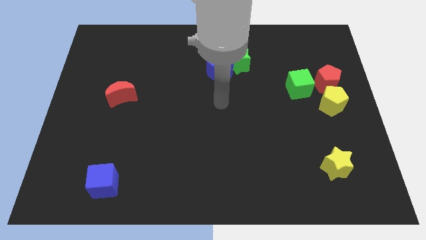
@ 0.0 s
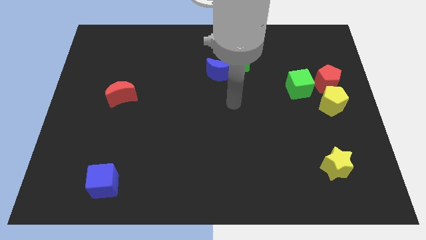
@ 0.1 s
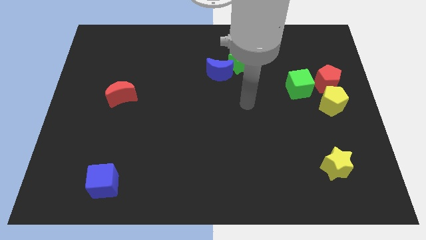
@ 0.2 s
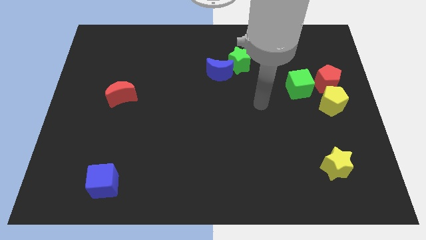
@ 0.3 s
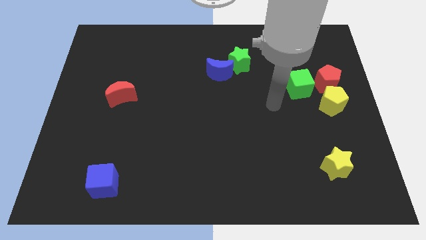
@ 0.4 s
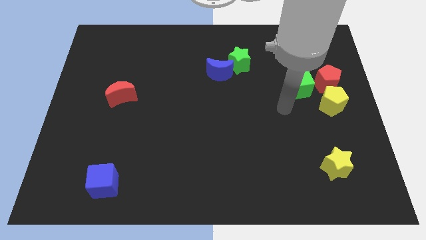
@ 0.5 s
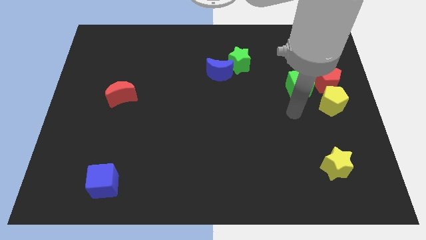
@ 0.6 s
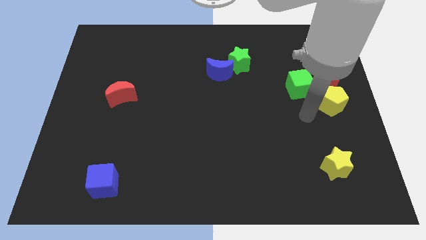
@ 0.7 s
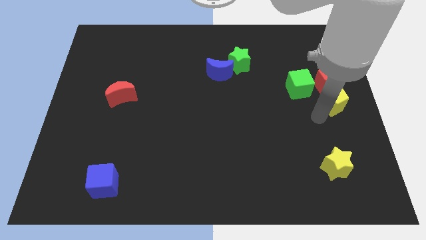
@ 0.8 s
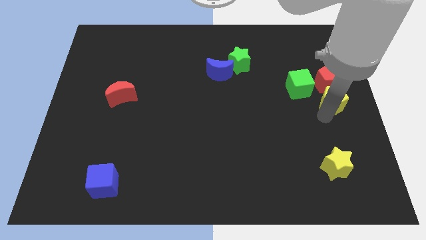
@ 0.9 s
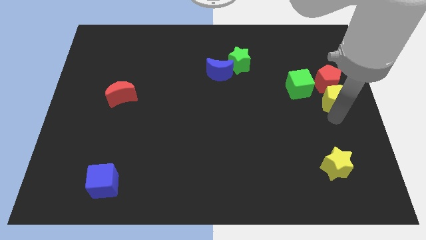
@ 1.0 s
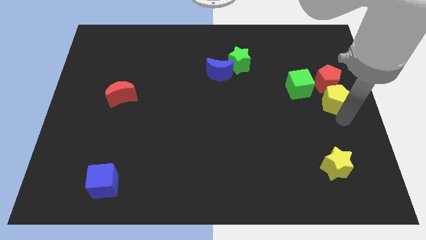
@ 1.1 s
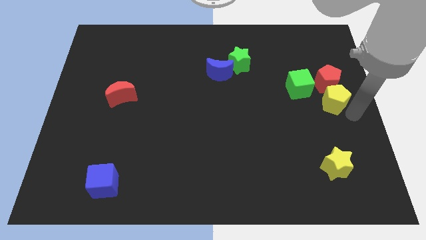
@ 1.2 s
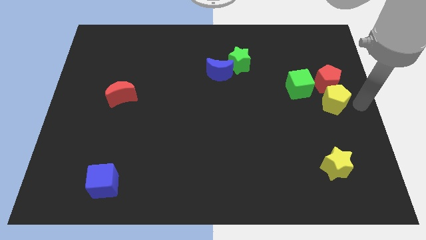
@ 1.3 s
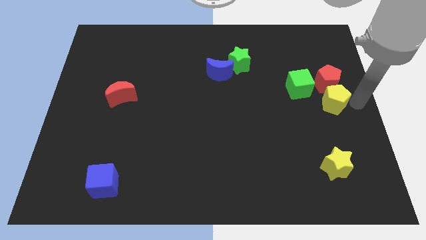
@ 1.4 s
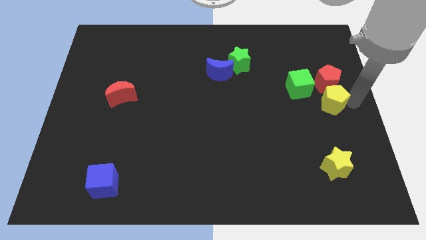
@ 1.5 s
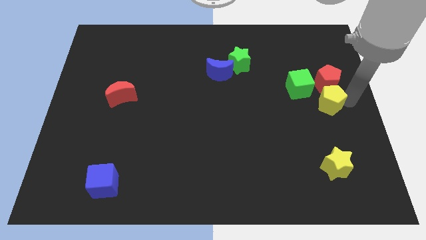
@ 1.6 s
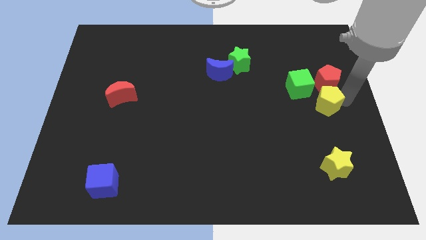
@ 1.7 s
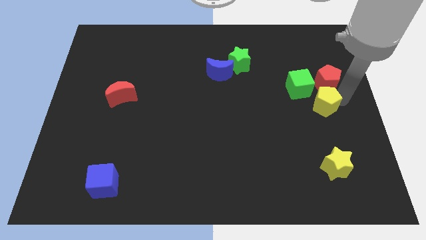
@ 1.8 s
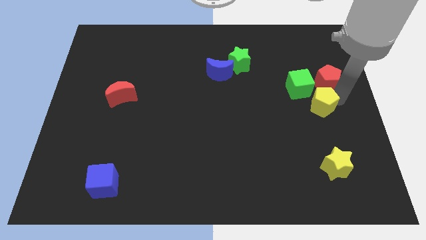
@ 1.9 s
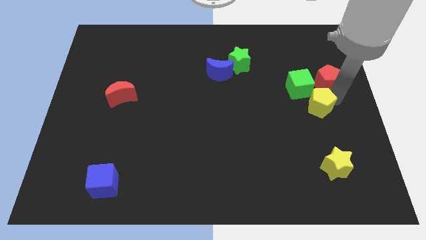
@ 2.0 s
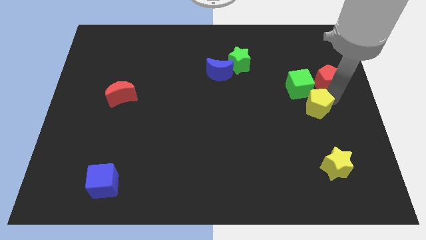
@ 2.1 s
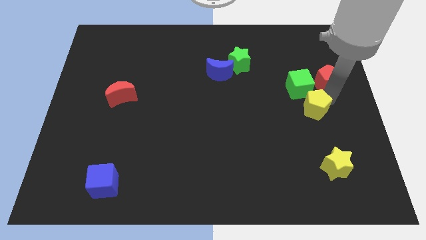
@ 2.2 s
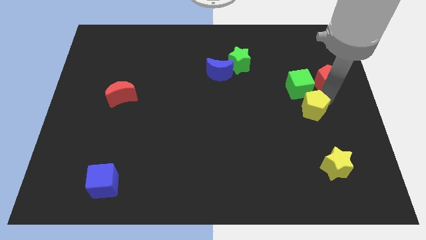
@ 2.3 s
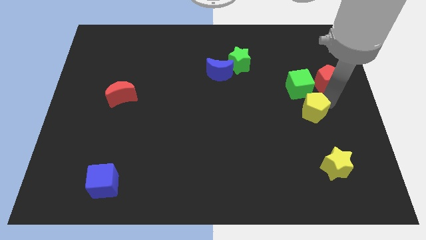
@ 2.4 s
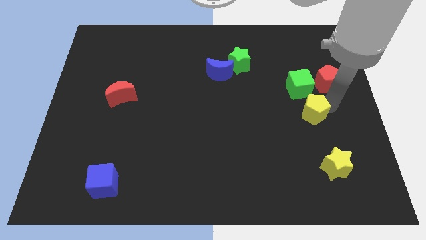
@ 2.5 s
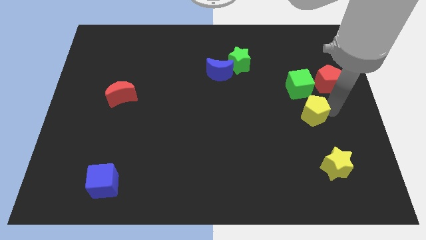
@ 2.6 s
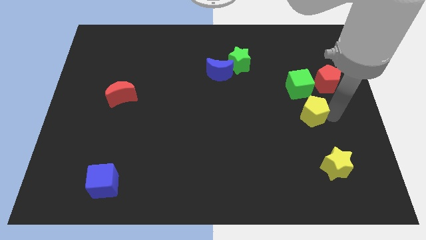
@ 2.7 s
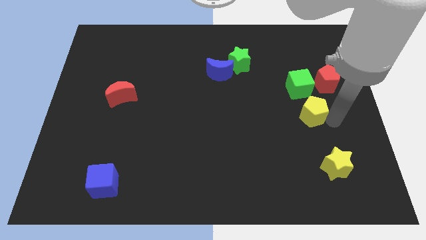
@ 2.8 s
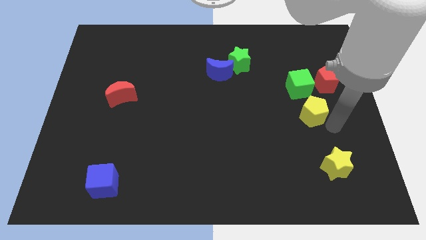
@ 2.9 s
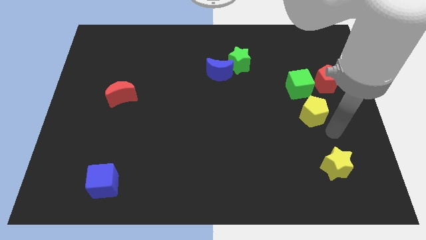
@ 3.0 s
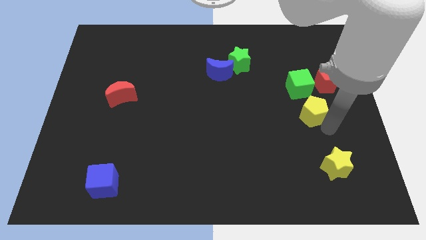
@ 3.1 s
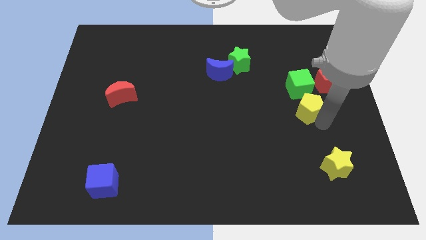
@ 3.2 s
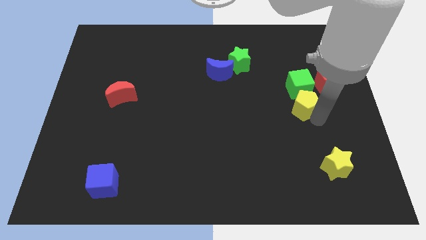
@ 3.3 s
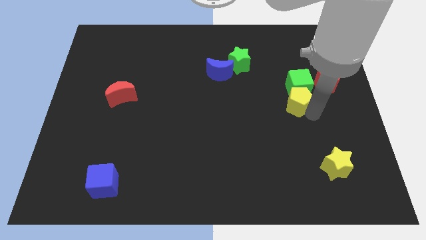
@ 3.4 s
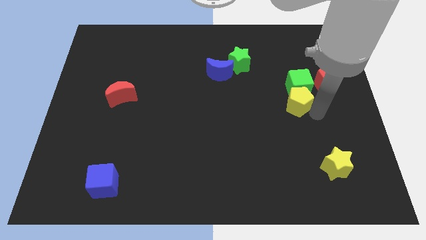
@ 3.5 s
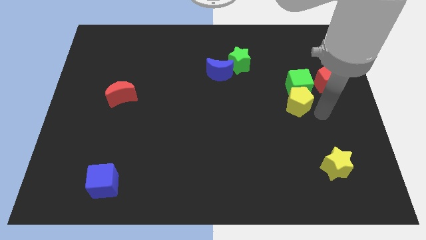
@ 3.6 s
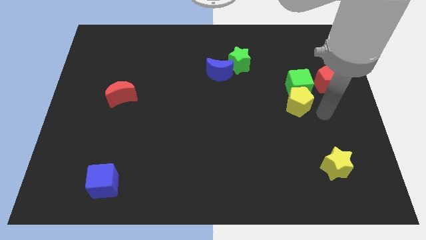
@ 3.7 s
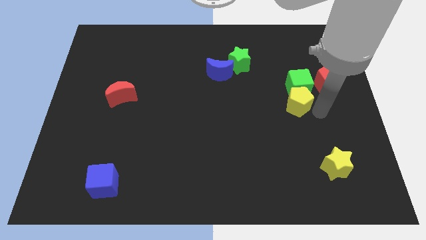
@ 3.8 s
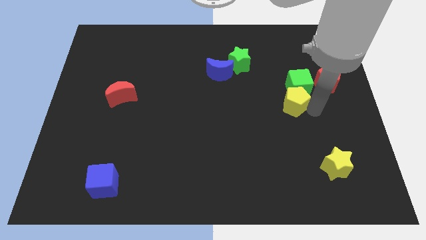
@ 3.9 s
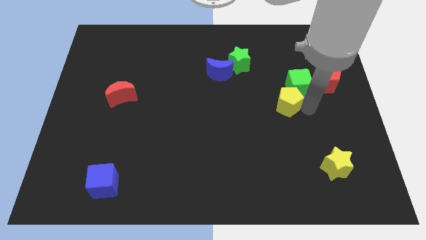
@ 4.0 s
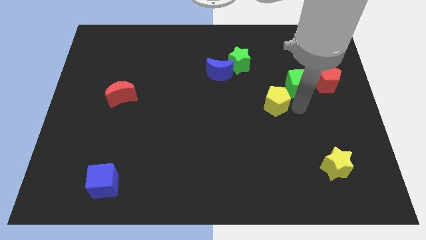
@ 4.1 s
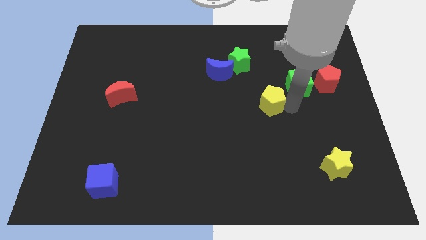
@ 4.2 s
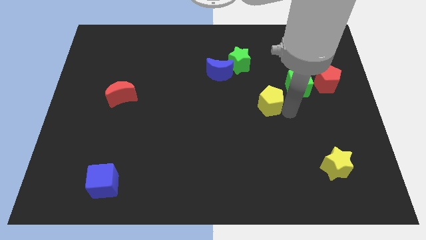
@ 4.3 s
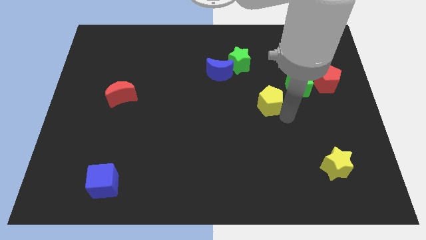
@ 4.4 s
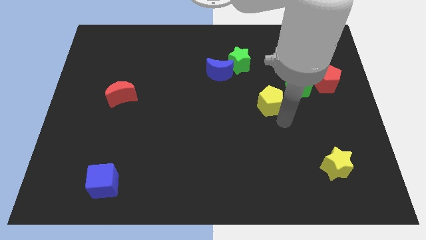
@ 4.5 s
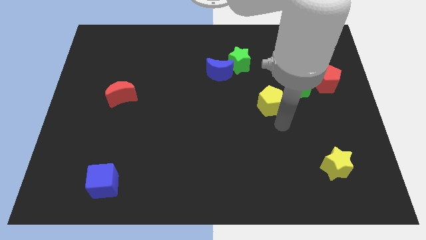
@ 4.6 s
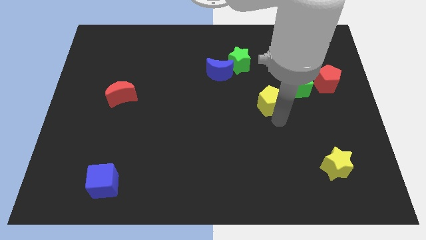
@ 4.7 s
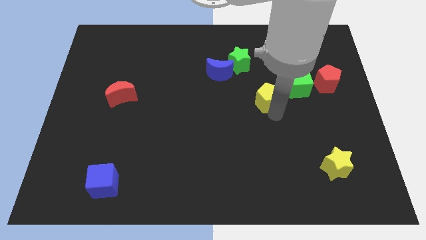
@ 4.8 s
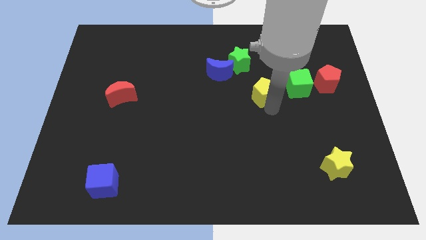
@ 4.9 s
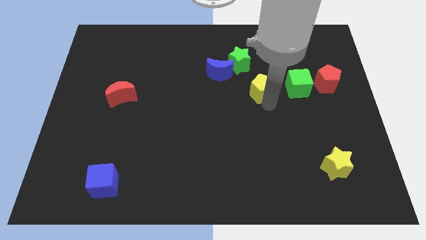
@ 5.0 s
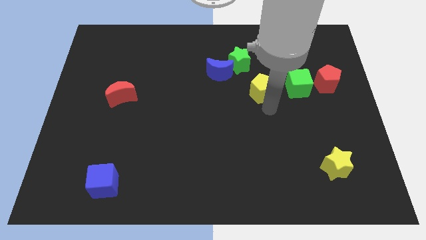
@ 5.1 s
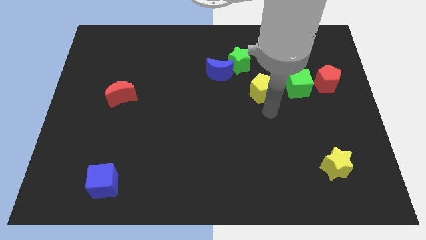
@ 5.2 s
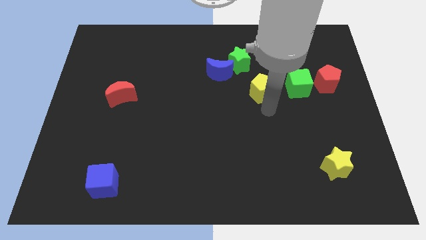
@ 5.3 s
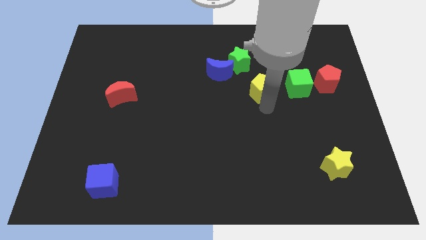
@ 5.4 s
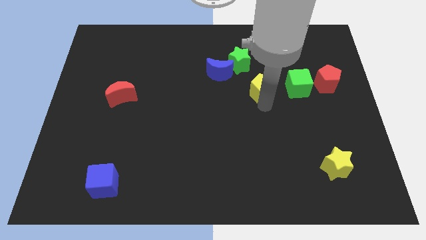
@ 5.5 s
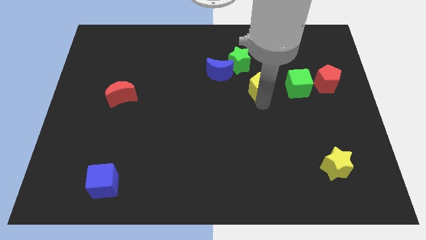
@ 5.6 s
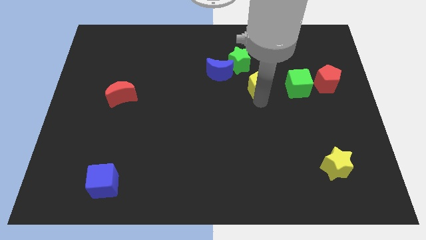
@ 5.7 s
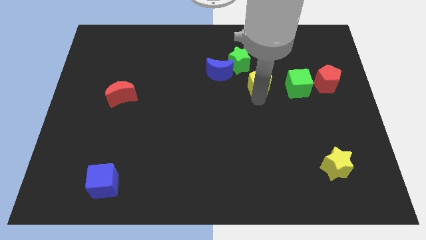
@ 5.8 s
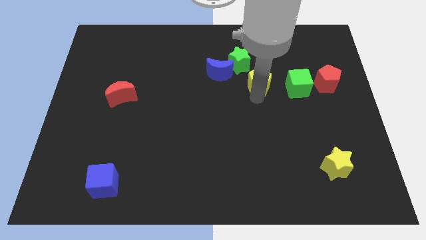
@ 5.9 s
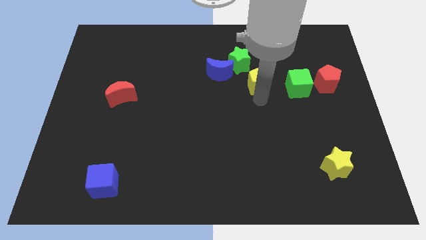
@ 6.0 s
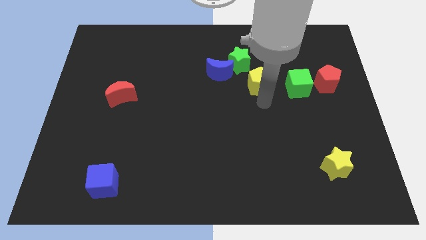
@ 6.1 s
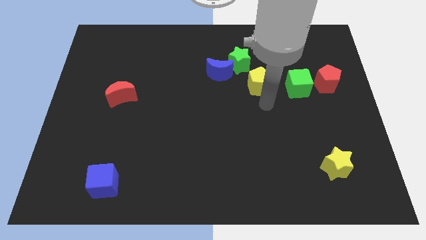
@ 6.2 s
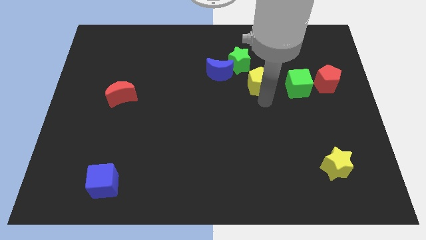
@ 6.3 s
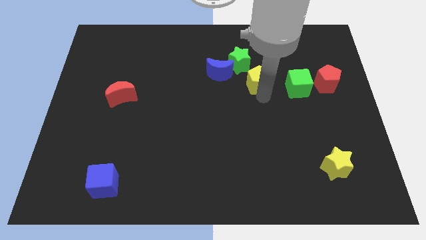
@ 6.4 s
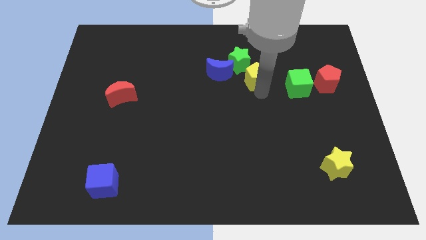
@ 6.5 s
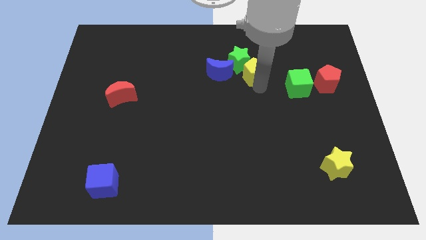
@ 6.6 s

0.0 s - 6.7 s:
move the yellow pentagon to the green star

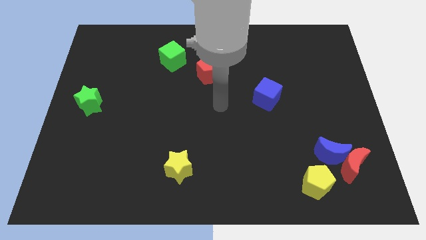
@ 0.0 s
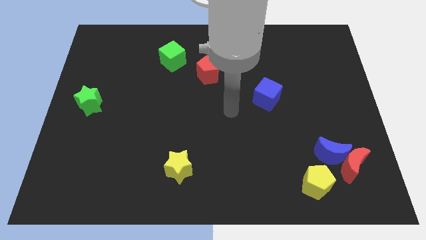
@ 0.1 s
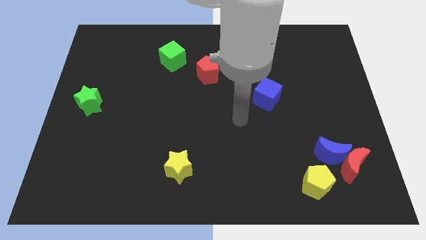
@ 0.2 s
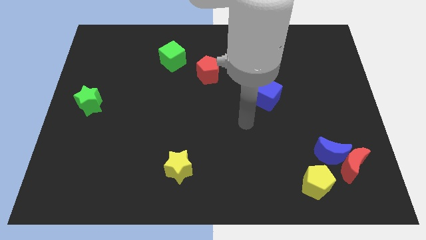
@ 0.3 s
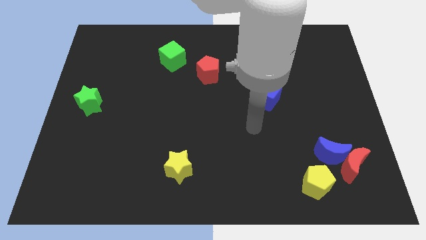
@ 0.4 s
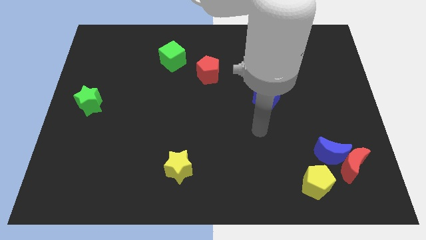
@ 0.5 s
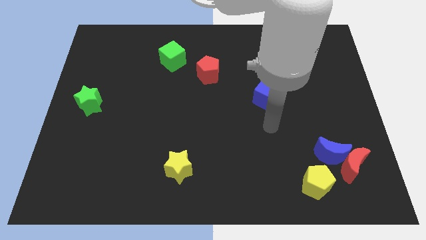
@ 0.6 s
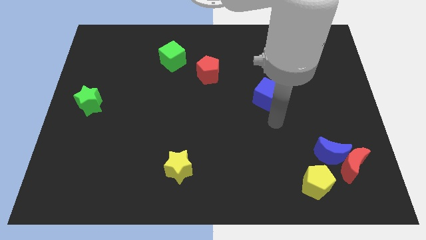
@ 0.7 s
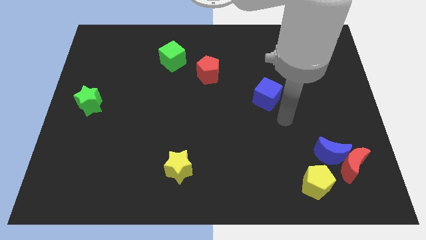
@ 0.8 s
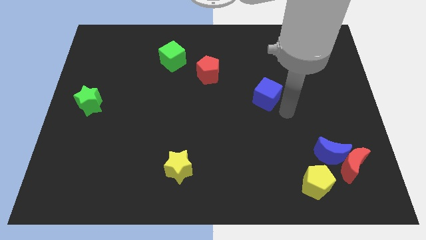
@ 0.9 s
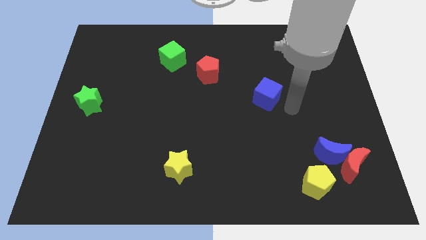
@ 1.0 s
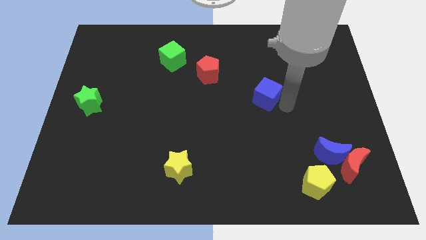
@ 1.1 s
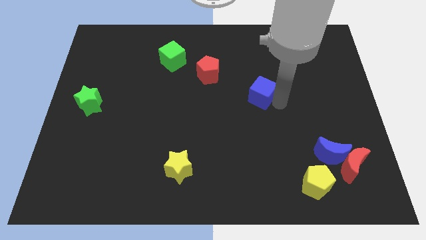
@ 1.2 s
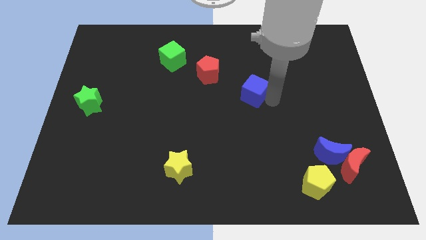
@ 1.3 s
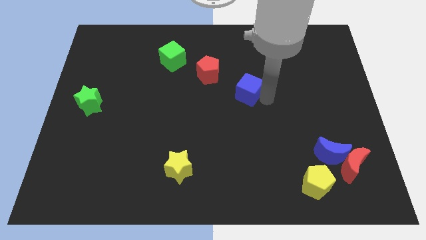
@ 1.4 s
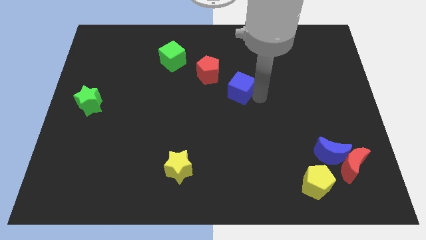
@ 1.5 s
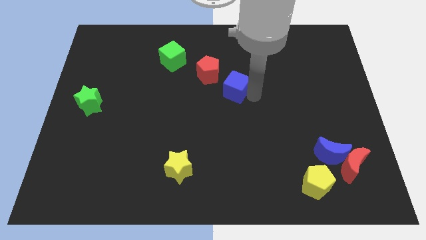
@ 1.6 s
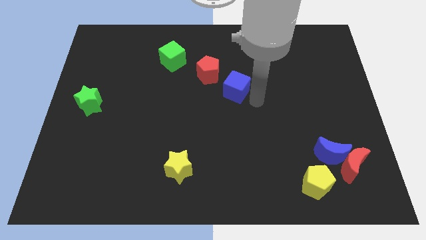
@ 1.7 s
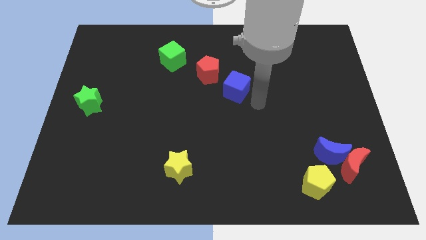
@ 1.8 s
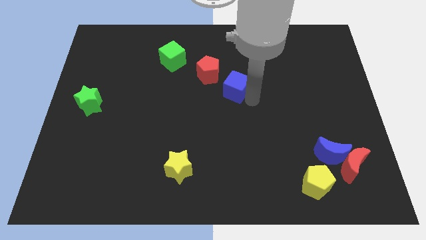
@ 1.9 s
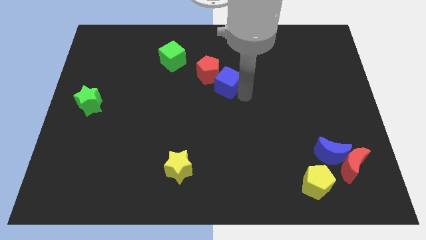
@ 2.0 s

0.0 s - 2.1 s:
push the blue cube close to the red pentagon
